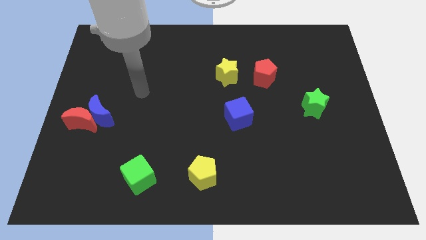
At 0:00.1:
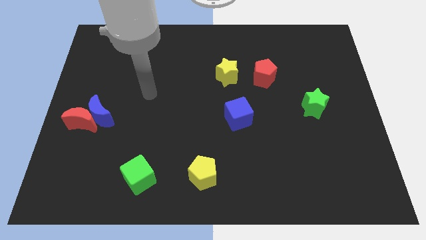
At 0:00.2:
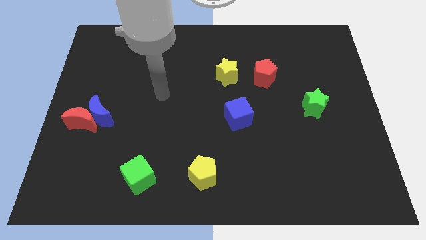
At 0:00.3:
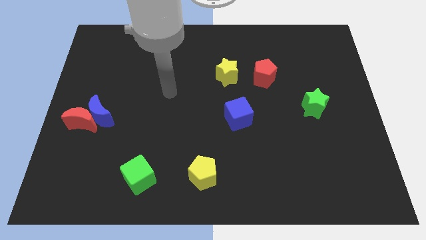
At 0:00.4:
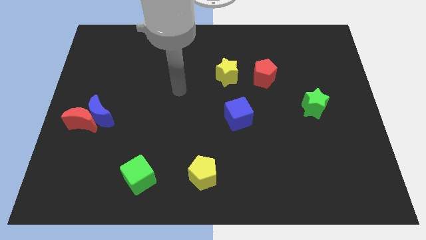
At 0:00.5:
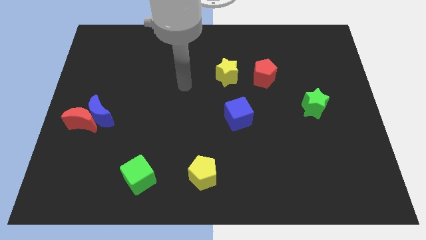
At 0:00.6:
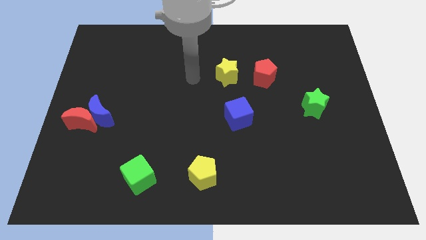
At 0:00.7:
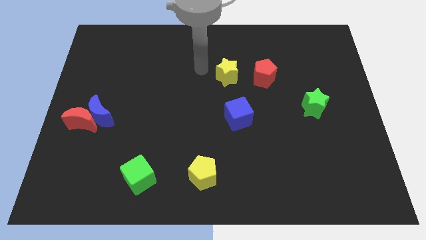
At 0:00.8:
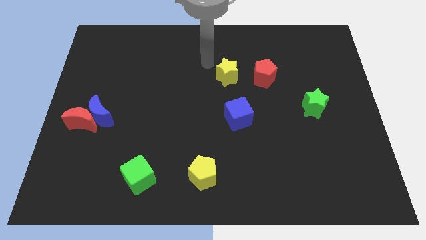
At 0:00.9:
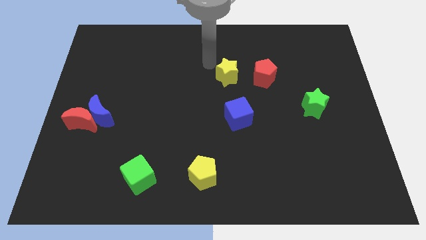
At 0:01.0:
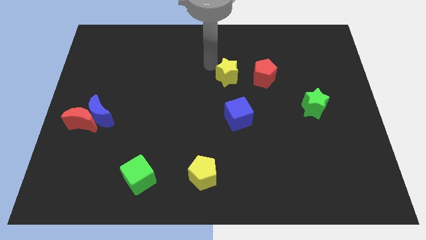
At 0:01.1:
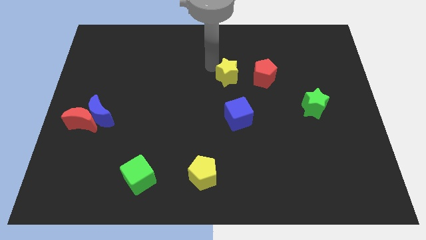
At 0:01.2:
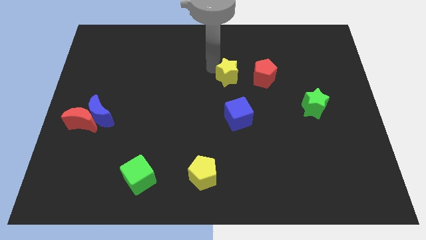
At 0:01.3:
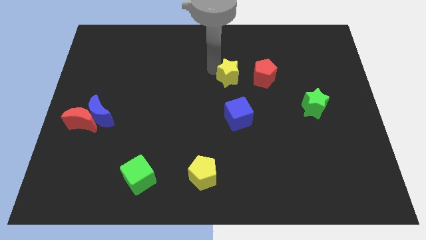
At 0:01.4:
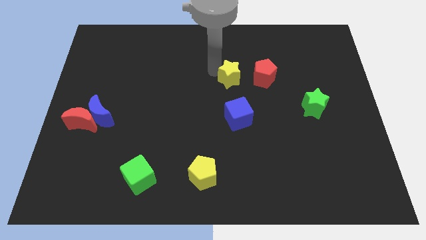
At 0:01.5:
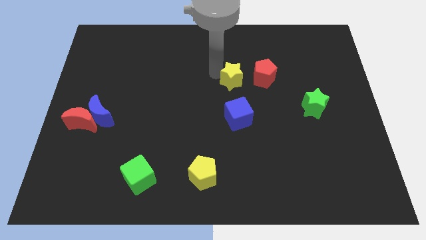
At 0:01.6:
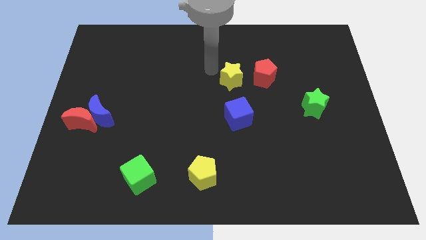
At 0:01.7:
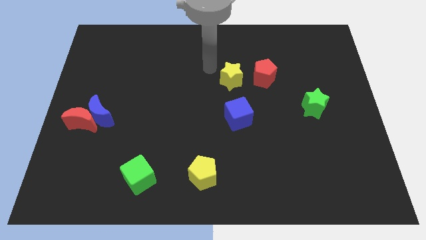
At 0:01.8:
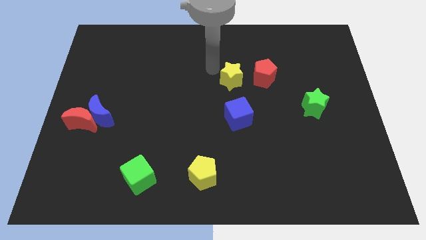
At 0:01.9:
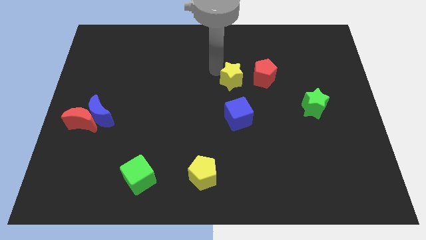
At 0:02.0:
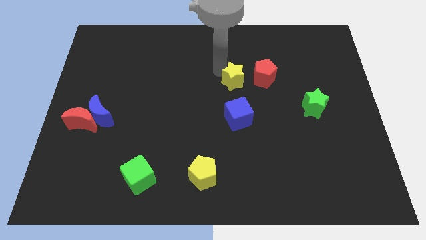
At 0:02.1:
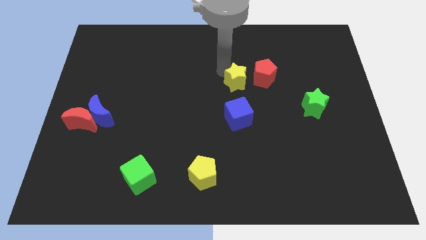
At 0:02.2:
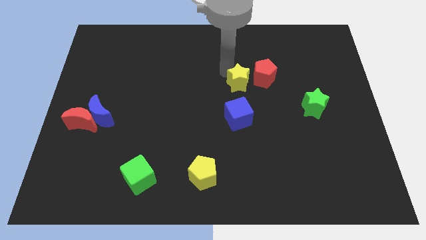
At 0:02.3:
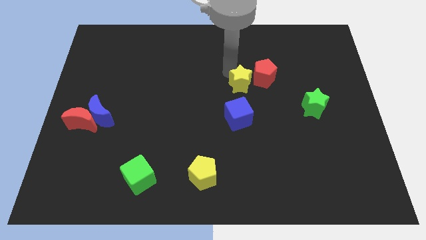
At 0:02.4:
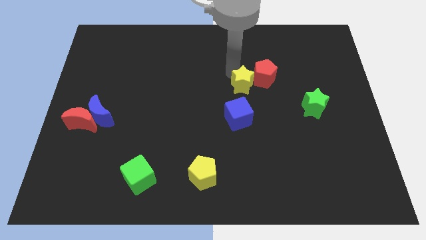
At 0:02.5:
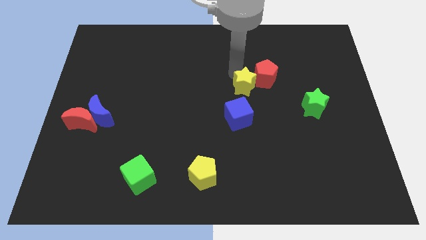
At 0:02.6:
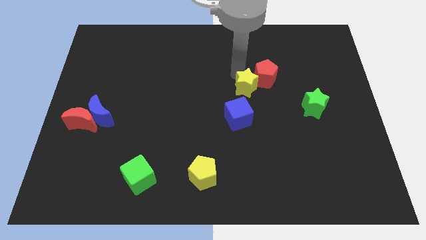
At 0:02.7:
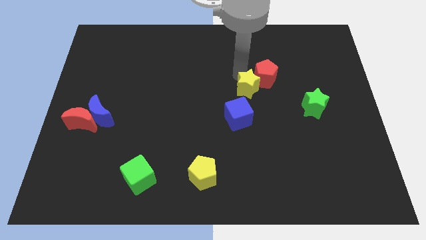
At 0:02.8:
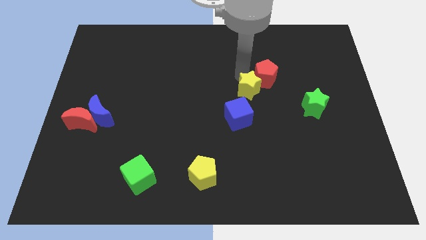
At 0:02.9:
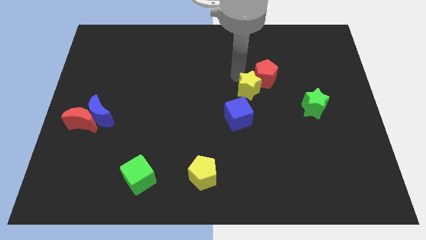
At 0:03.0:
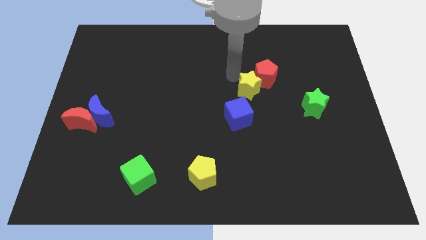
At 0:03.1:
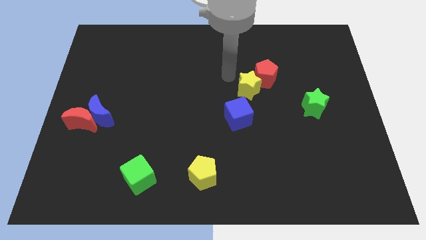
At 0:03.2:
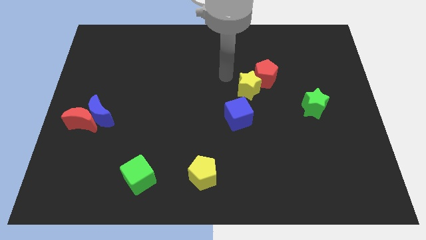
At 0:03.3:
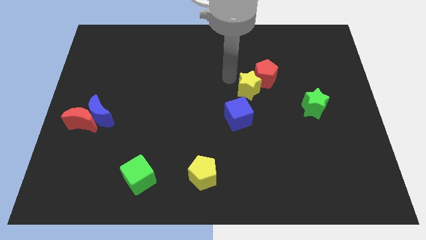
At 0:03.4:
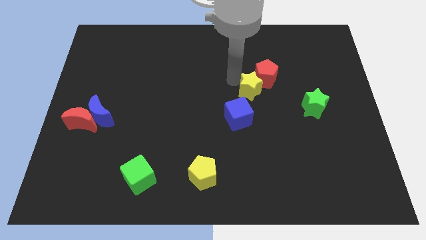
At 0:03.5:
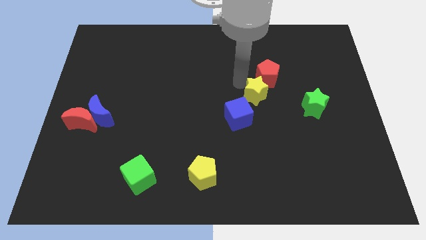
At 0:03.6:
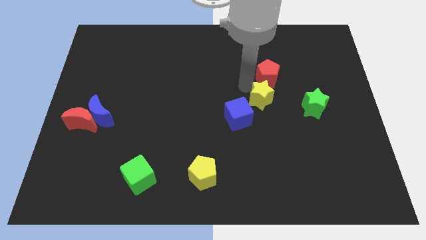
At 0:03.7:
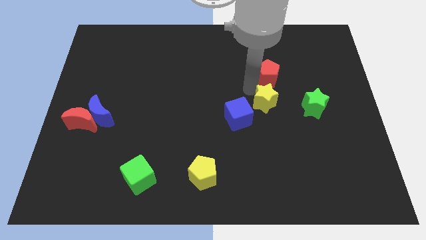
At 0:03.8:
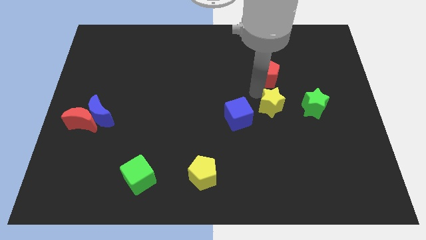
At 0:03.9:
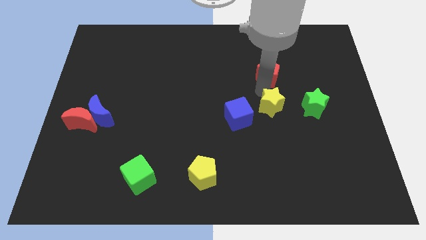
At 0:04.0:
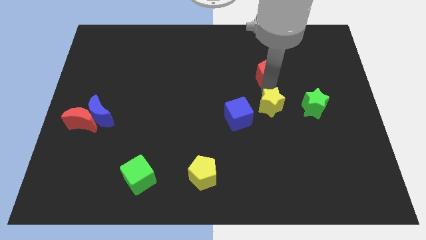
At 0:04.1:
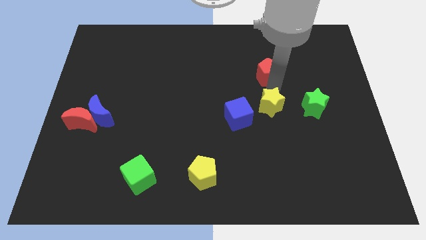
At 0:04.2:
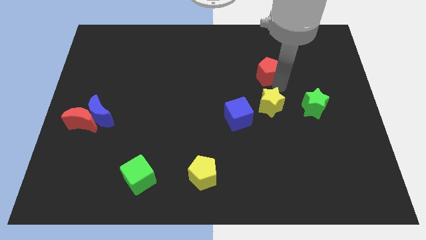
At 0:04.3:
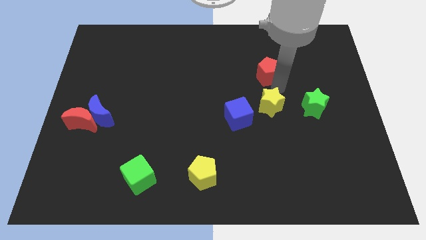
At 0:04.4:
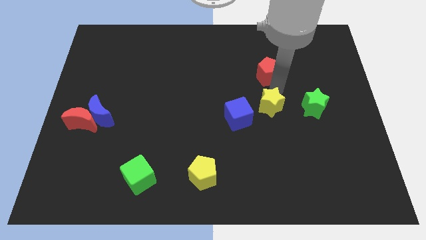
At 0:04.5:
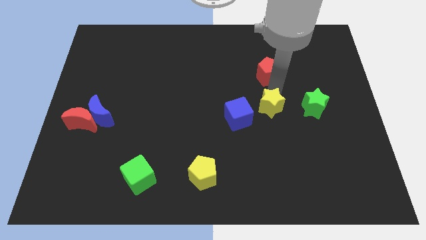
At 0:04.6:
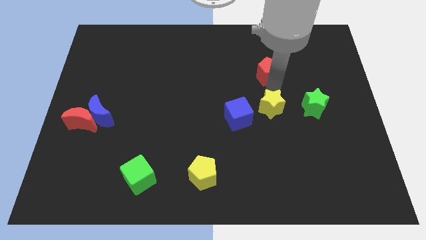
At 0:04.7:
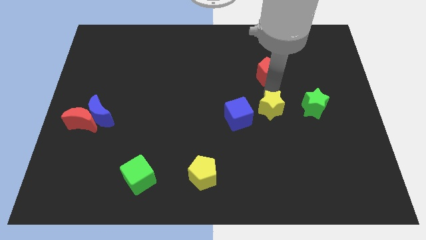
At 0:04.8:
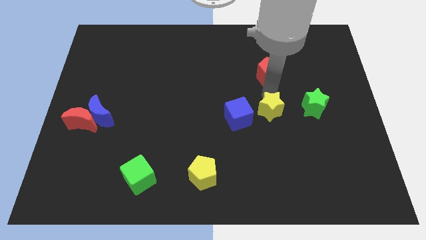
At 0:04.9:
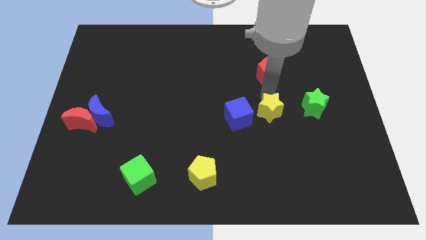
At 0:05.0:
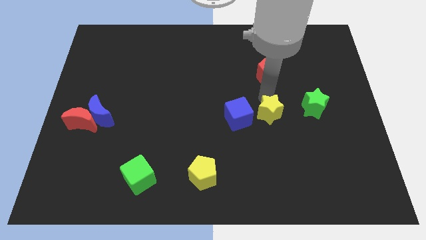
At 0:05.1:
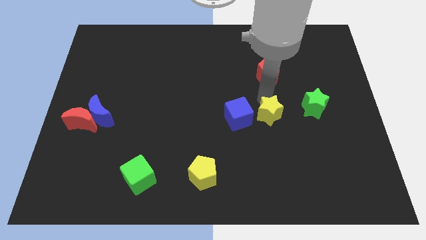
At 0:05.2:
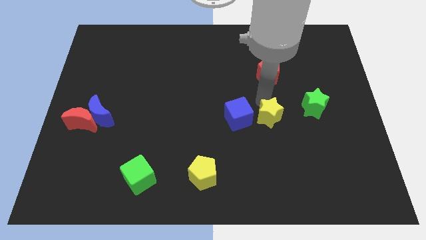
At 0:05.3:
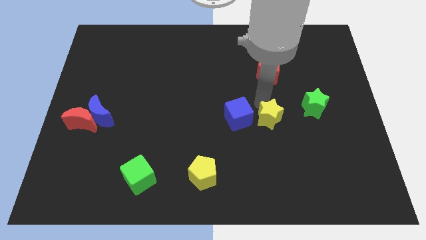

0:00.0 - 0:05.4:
put the yellow star to the bottom right of the blue cube

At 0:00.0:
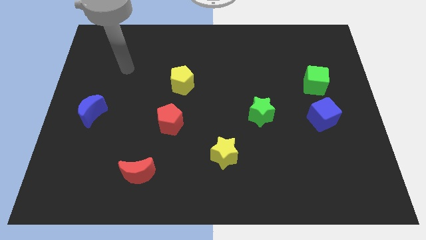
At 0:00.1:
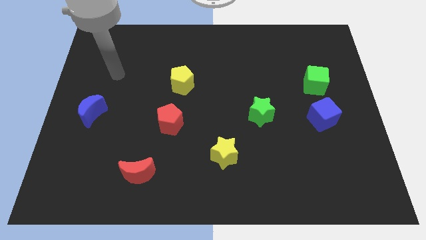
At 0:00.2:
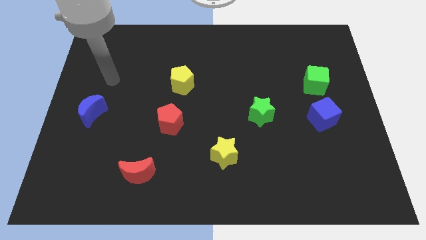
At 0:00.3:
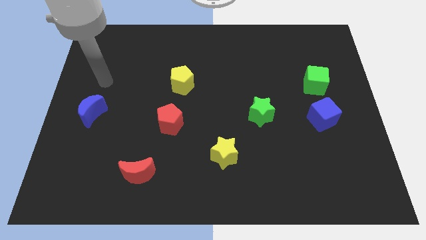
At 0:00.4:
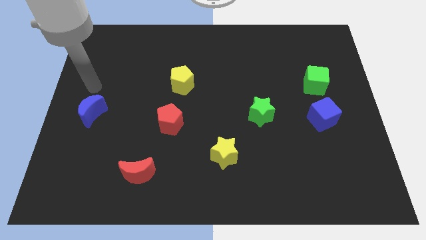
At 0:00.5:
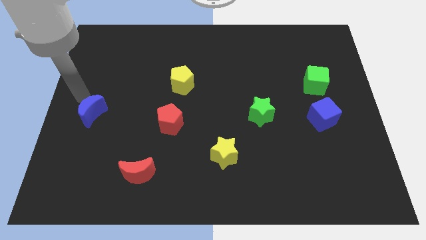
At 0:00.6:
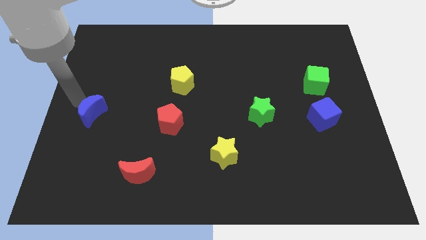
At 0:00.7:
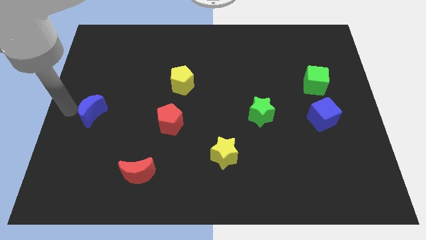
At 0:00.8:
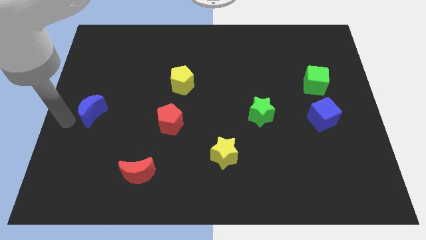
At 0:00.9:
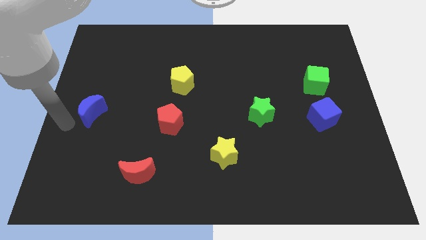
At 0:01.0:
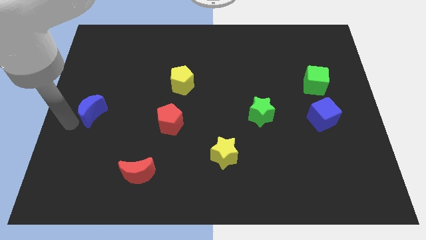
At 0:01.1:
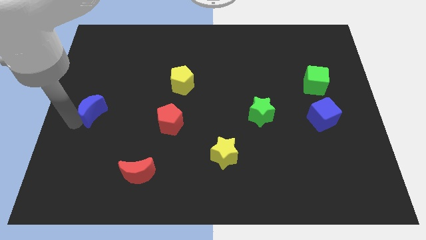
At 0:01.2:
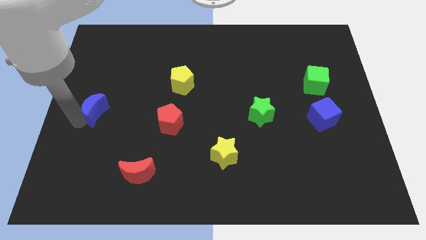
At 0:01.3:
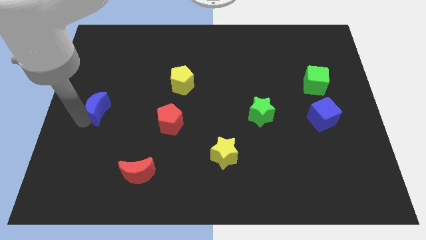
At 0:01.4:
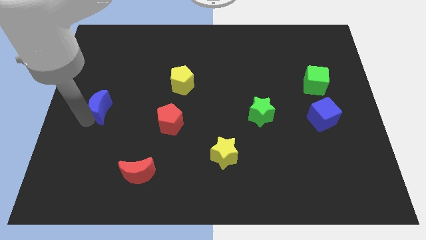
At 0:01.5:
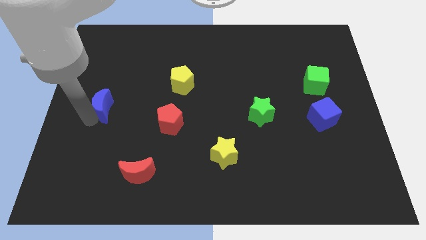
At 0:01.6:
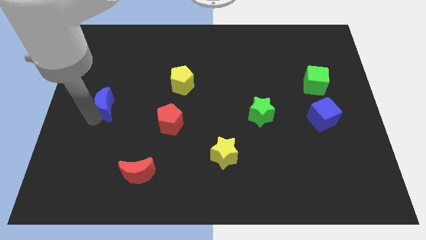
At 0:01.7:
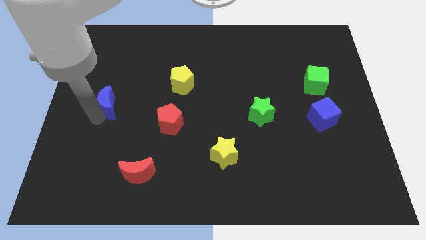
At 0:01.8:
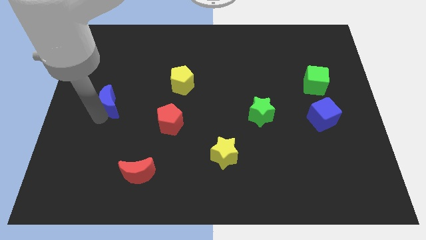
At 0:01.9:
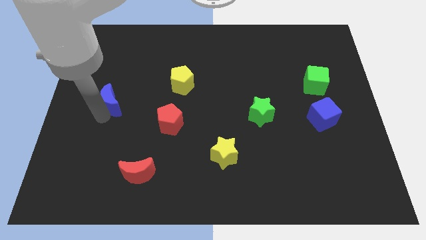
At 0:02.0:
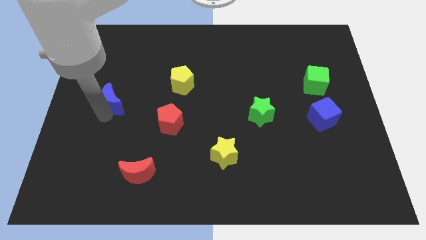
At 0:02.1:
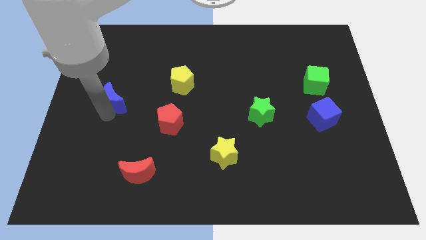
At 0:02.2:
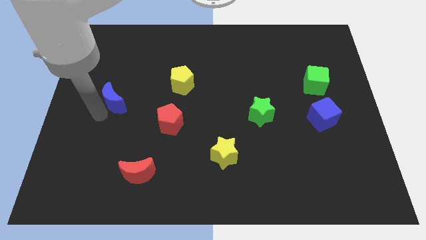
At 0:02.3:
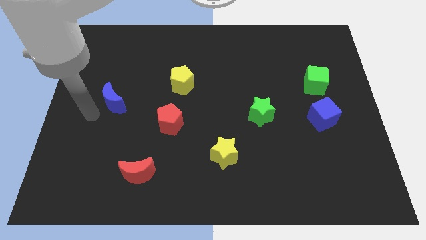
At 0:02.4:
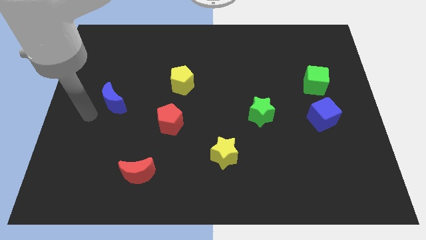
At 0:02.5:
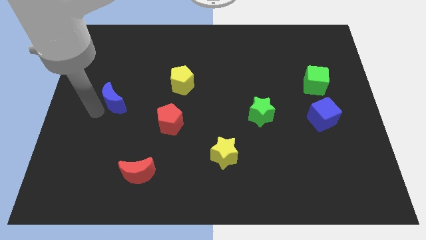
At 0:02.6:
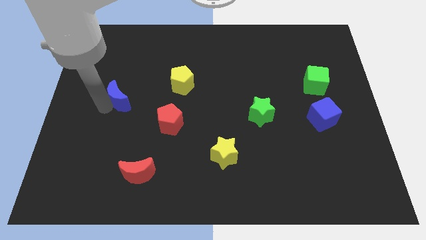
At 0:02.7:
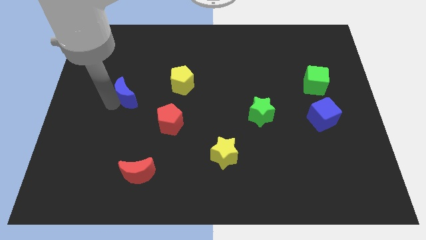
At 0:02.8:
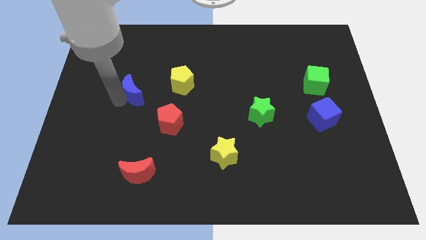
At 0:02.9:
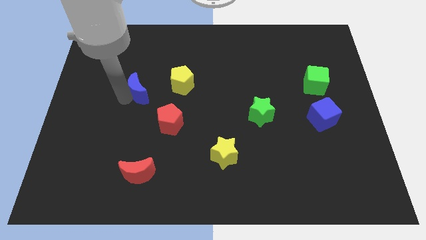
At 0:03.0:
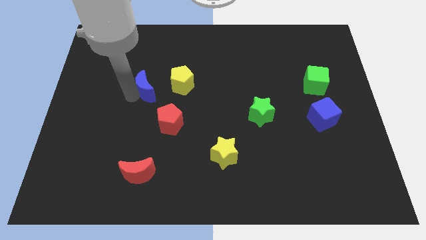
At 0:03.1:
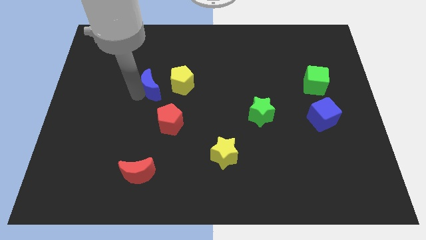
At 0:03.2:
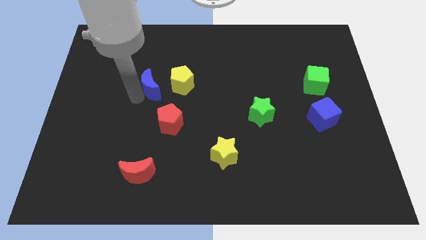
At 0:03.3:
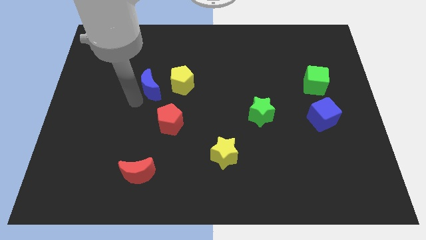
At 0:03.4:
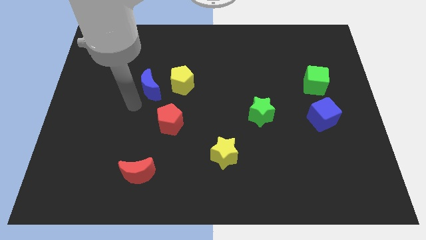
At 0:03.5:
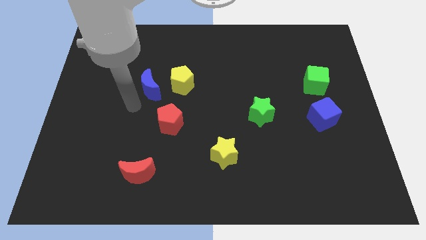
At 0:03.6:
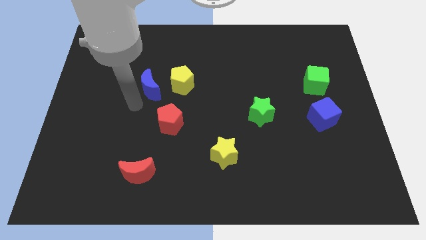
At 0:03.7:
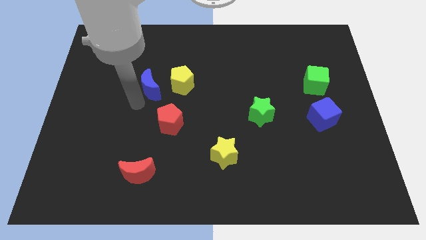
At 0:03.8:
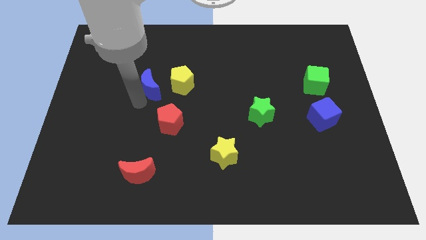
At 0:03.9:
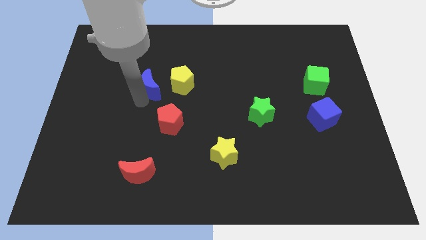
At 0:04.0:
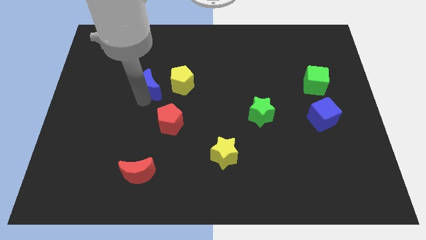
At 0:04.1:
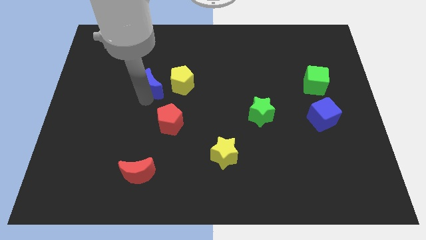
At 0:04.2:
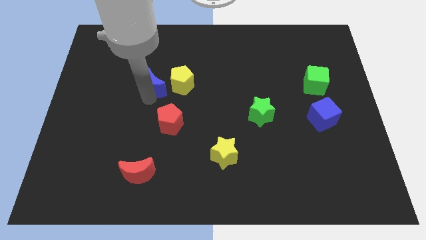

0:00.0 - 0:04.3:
put the blue moon to the top side of the red pentagon
